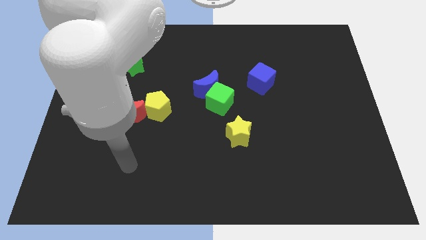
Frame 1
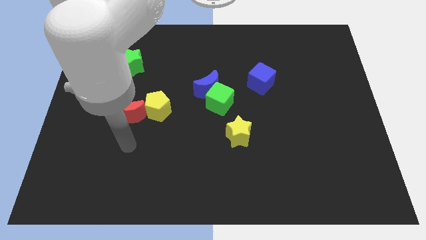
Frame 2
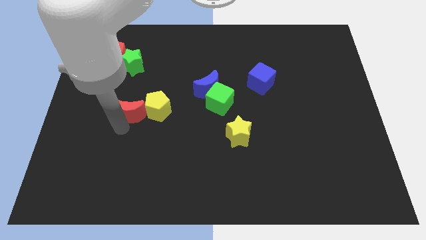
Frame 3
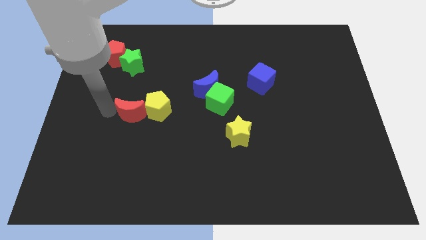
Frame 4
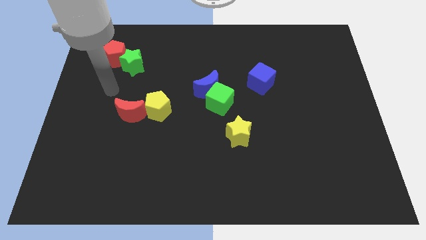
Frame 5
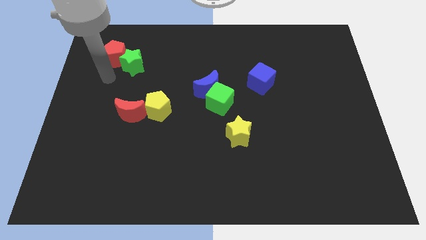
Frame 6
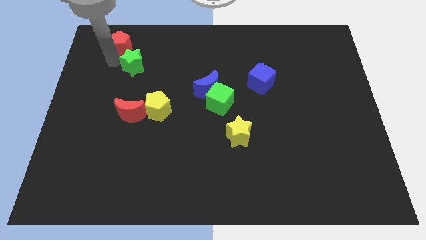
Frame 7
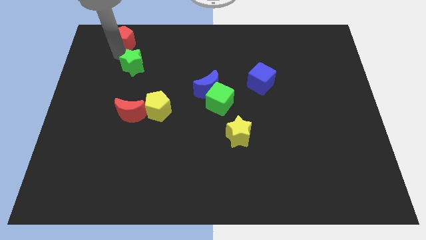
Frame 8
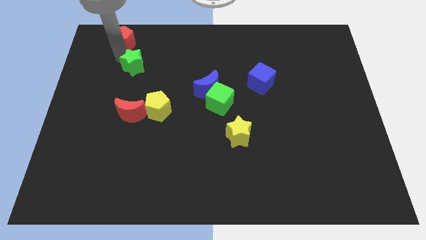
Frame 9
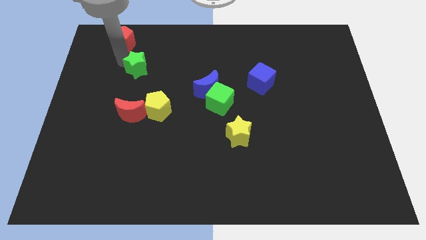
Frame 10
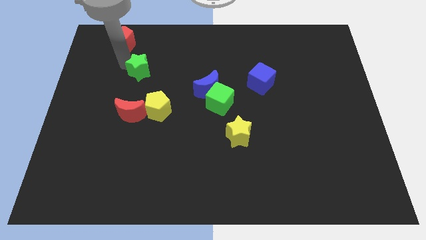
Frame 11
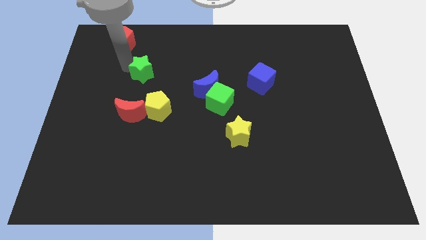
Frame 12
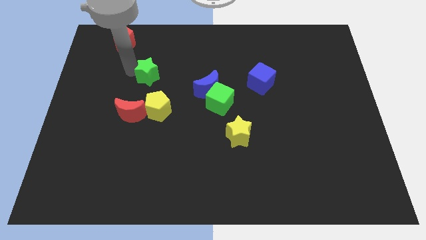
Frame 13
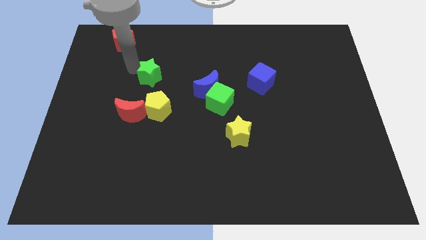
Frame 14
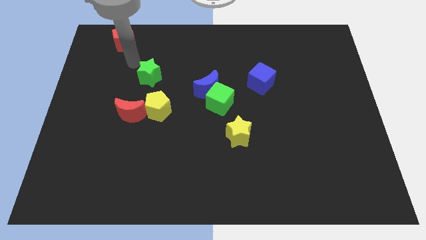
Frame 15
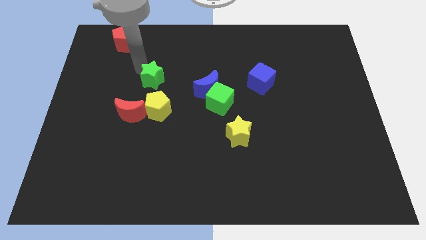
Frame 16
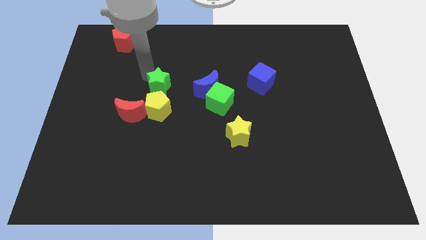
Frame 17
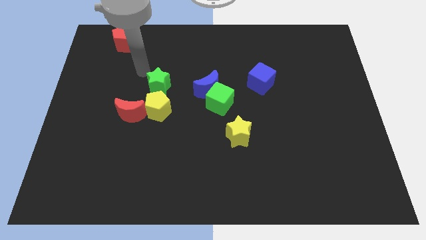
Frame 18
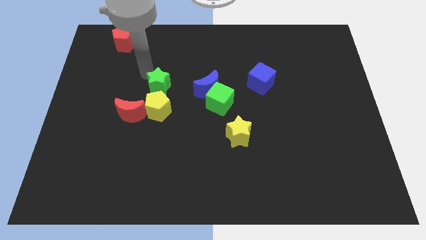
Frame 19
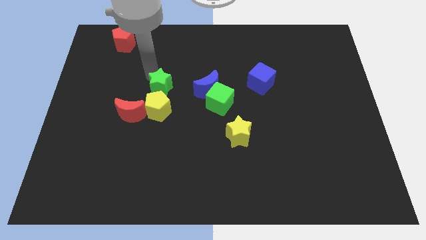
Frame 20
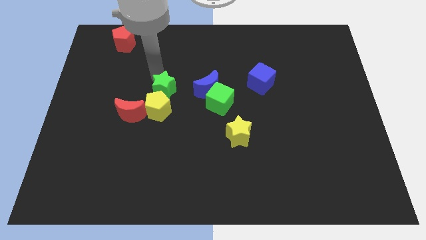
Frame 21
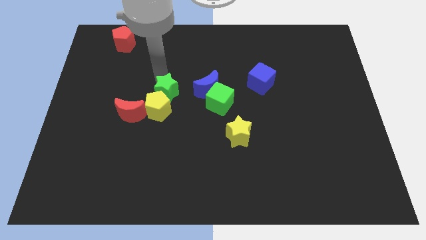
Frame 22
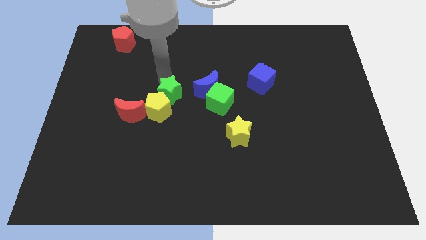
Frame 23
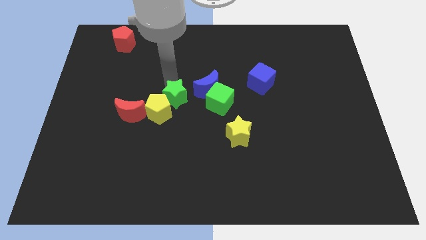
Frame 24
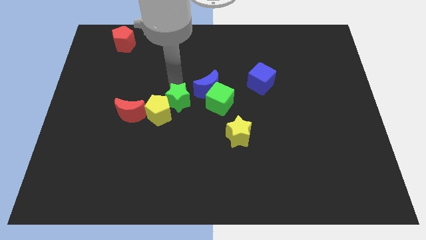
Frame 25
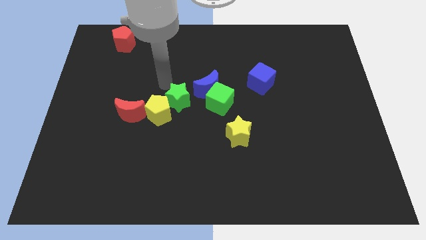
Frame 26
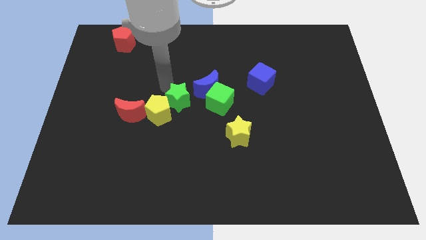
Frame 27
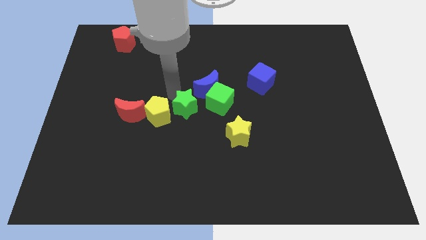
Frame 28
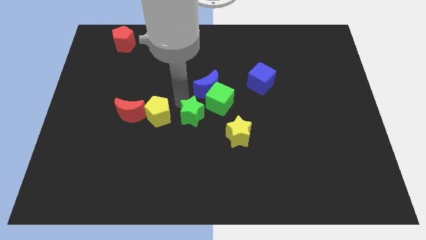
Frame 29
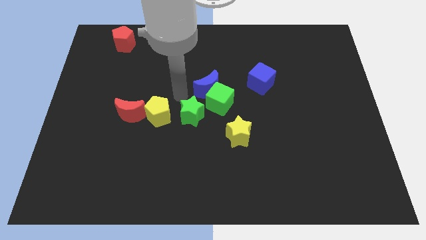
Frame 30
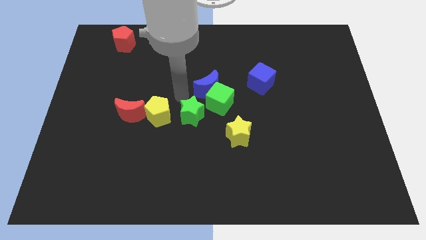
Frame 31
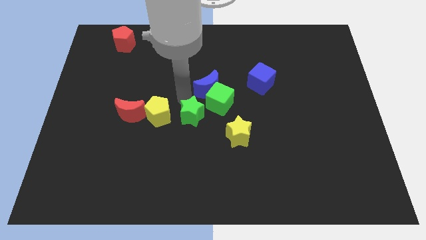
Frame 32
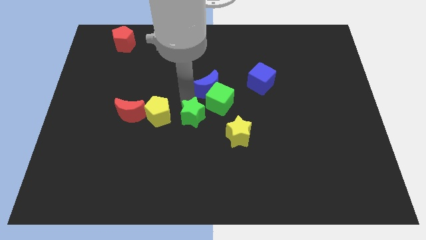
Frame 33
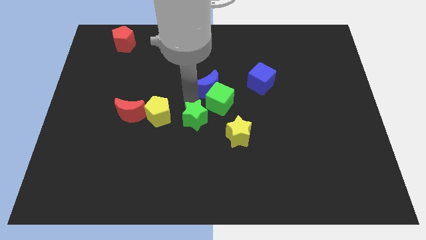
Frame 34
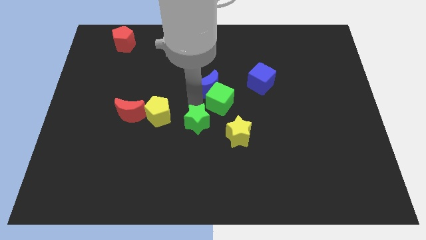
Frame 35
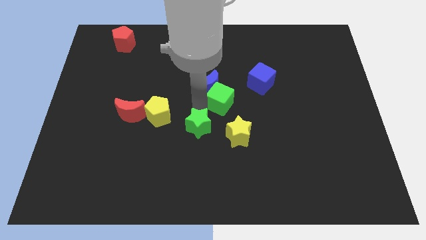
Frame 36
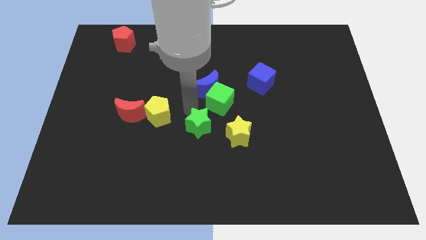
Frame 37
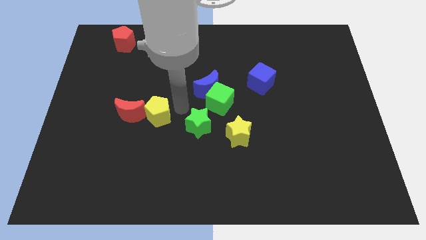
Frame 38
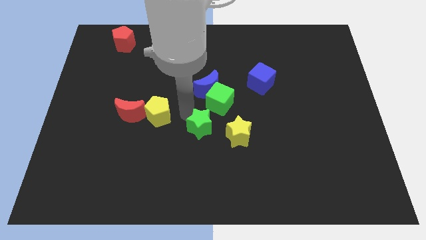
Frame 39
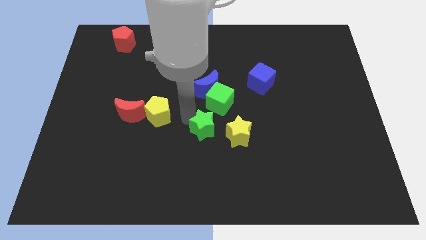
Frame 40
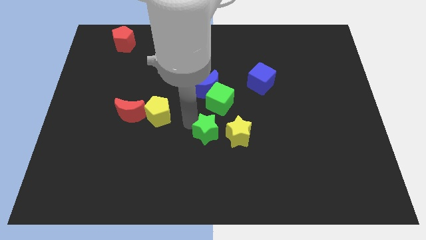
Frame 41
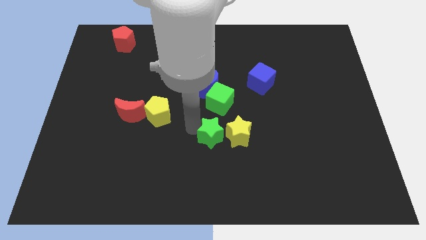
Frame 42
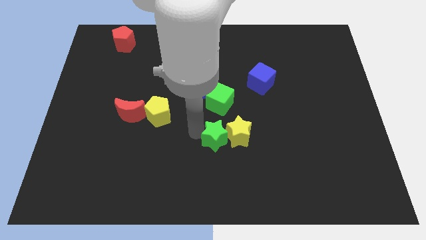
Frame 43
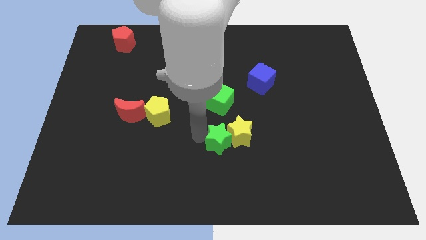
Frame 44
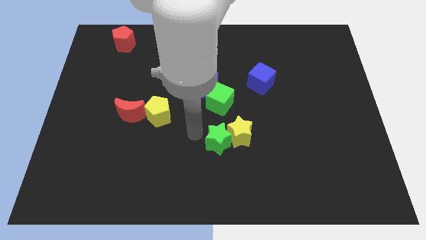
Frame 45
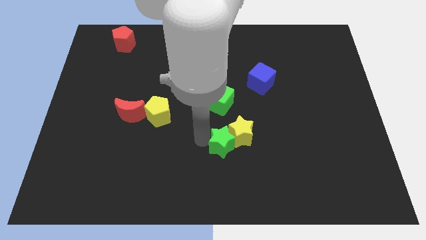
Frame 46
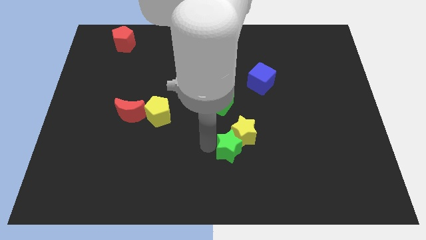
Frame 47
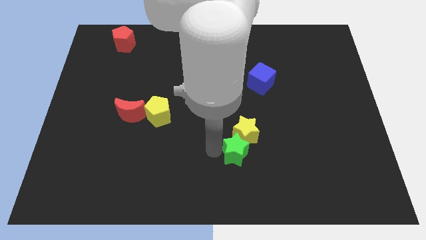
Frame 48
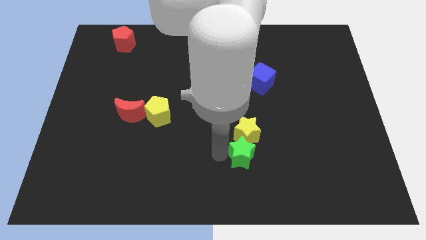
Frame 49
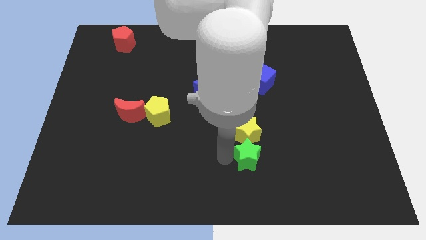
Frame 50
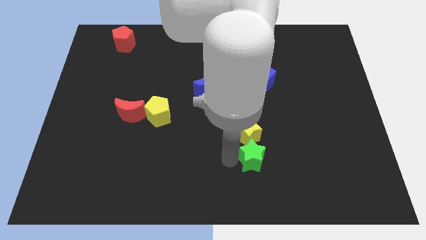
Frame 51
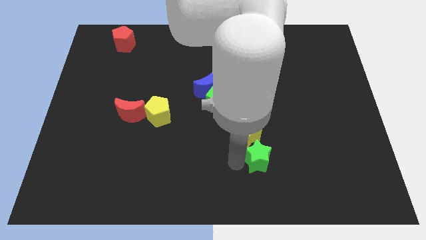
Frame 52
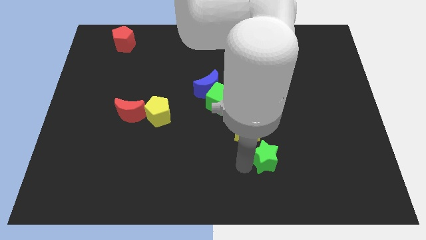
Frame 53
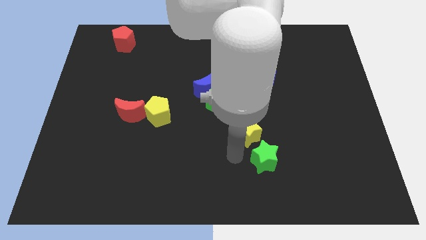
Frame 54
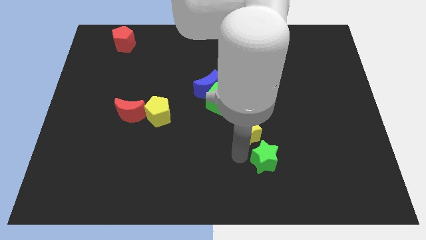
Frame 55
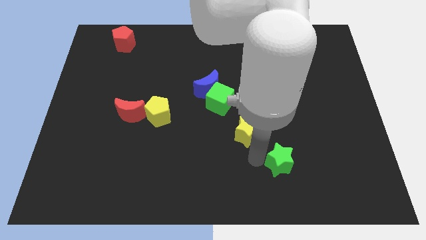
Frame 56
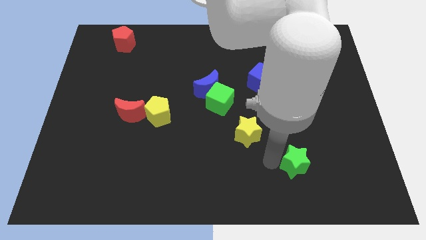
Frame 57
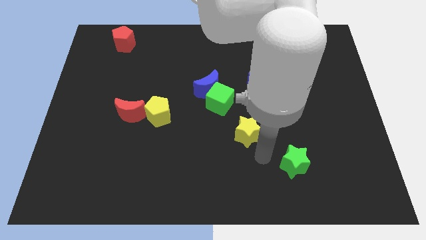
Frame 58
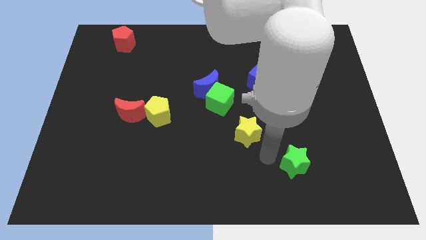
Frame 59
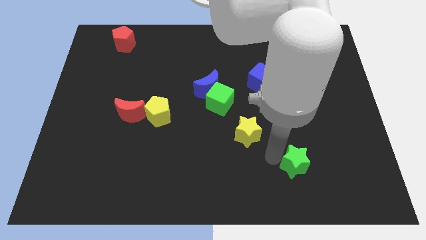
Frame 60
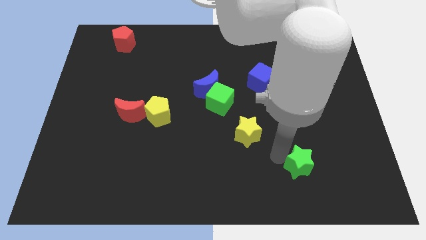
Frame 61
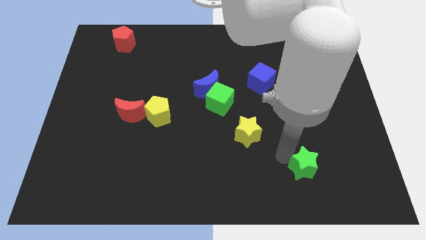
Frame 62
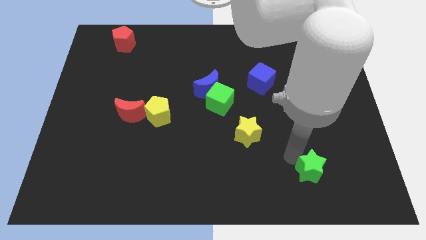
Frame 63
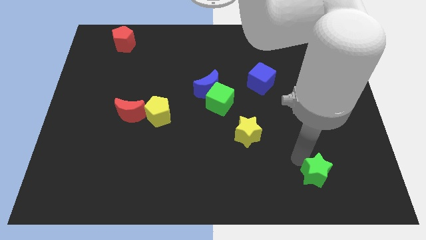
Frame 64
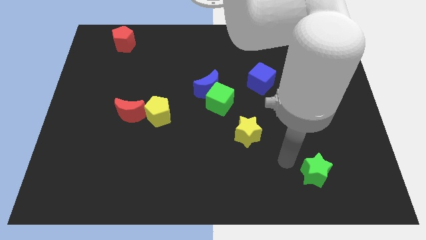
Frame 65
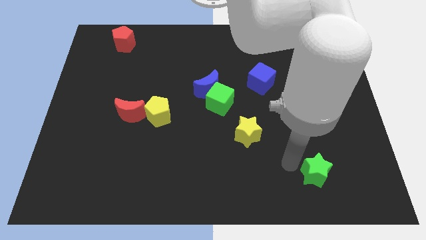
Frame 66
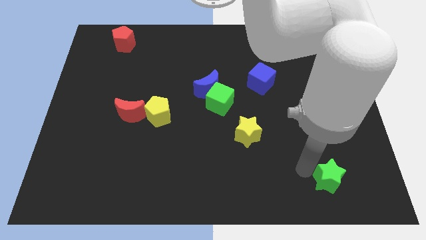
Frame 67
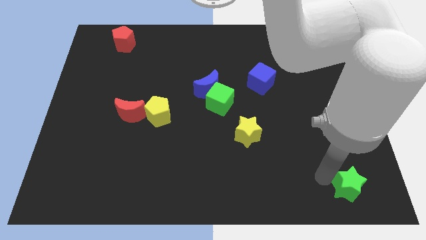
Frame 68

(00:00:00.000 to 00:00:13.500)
slide the green star to the bottom right
